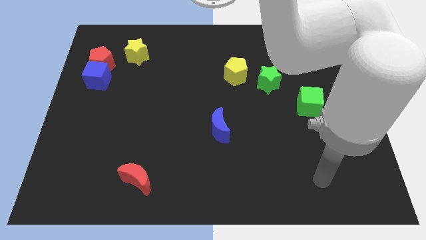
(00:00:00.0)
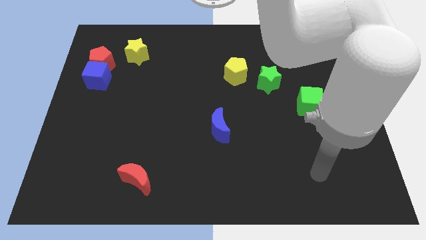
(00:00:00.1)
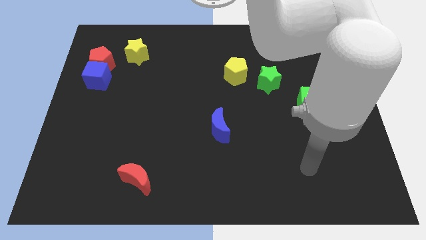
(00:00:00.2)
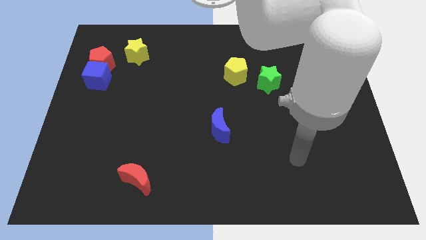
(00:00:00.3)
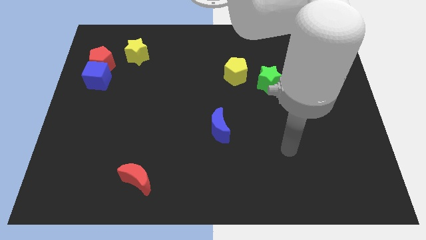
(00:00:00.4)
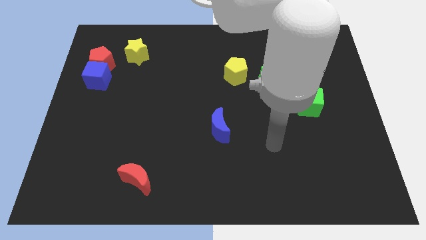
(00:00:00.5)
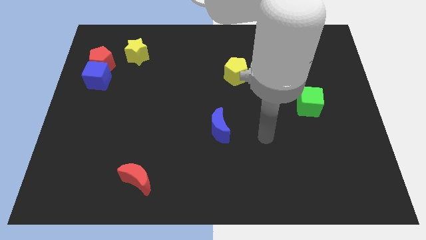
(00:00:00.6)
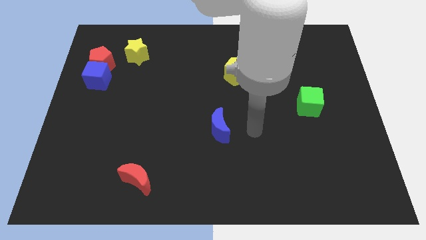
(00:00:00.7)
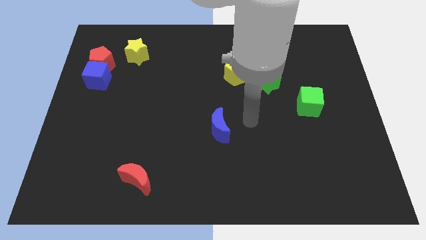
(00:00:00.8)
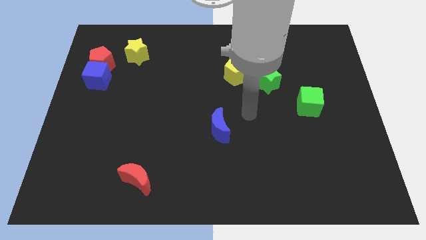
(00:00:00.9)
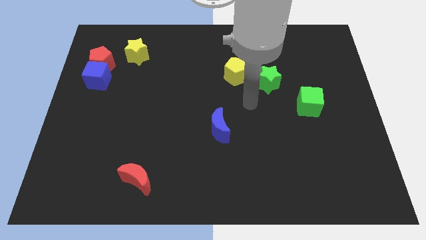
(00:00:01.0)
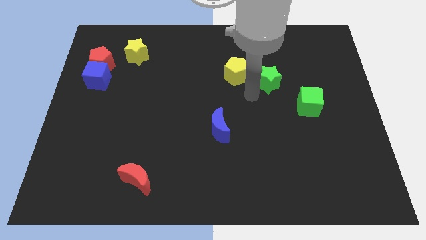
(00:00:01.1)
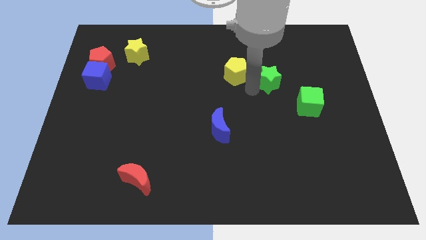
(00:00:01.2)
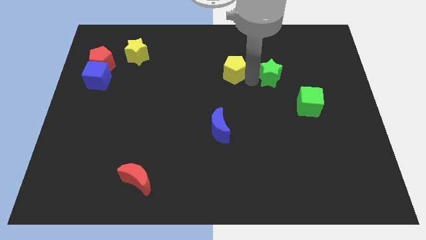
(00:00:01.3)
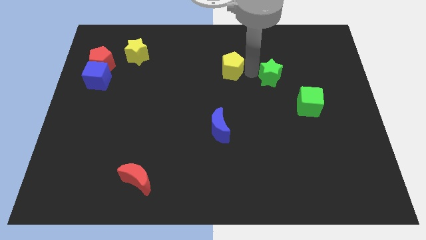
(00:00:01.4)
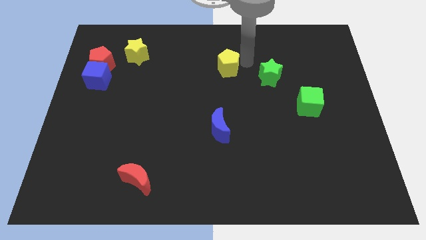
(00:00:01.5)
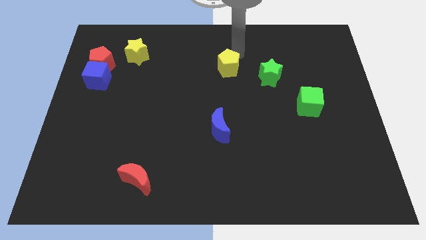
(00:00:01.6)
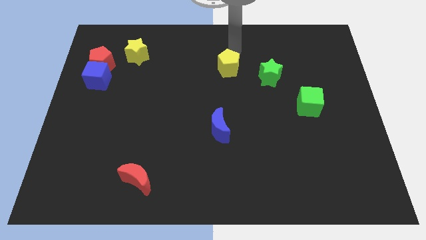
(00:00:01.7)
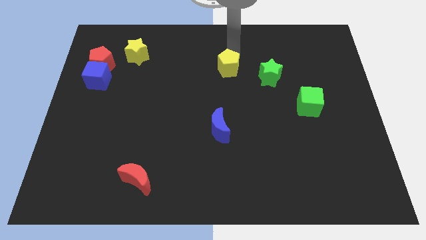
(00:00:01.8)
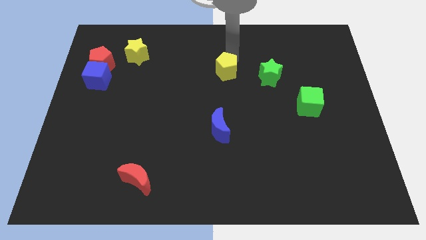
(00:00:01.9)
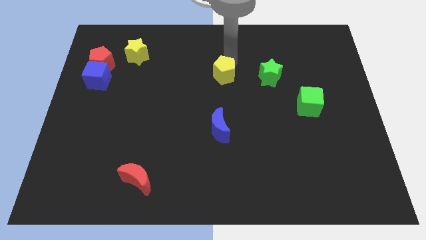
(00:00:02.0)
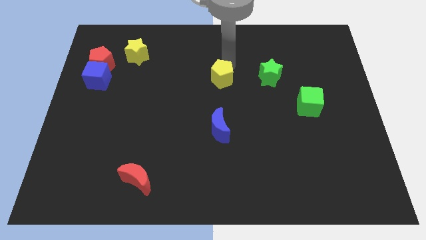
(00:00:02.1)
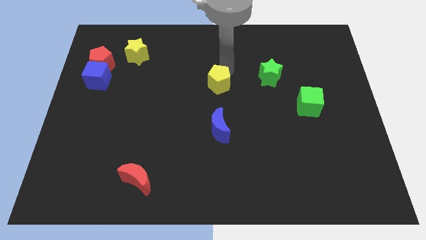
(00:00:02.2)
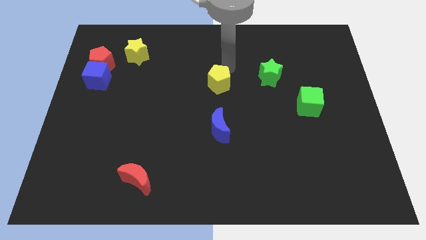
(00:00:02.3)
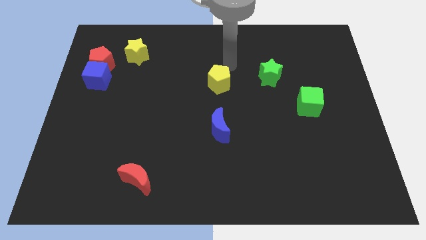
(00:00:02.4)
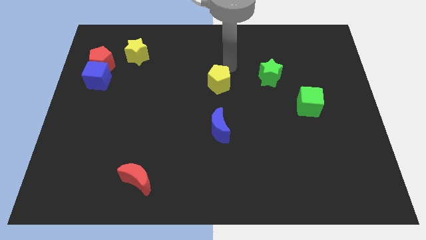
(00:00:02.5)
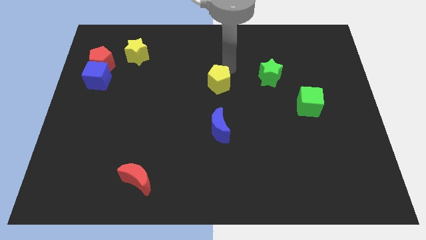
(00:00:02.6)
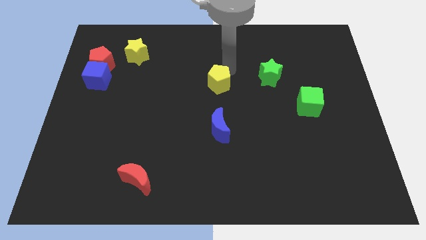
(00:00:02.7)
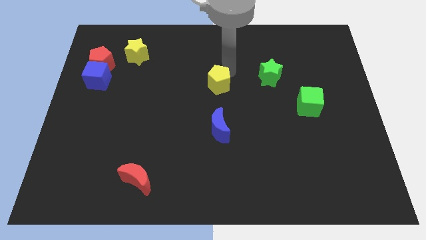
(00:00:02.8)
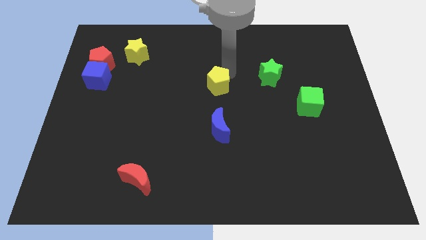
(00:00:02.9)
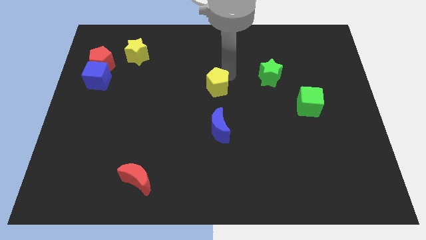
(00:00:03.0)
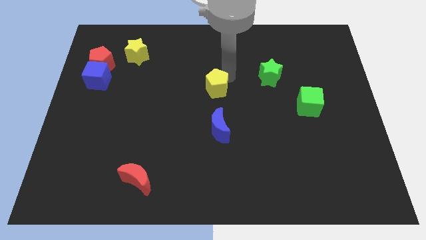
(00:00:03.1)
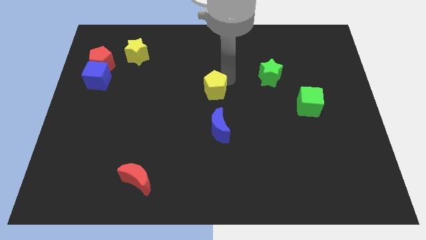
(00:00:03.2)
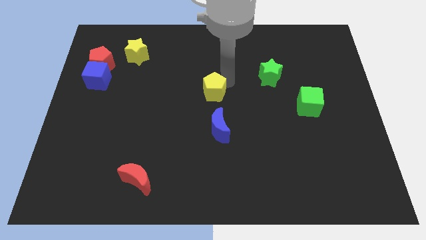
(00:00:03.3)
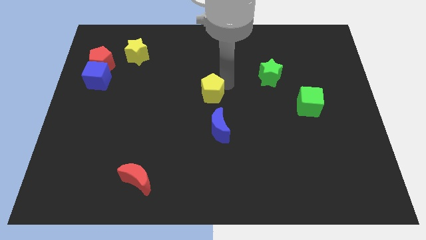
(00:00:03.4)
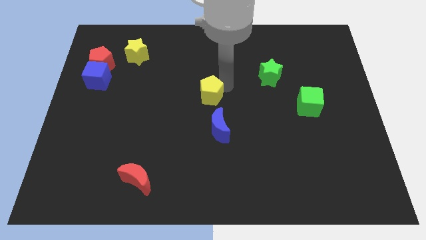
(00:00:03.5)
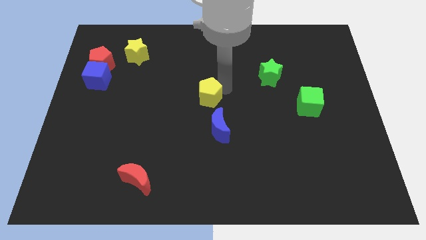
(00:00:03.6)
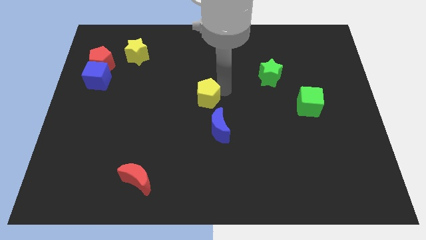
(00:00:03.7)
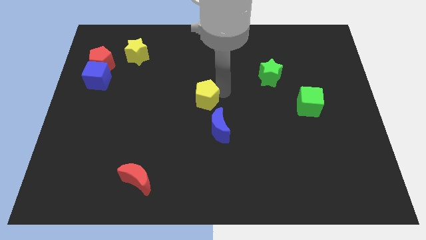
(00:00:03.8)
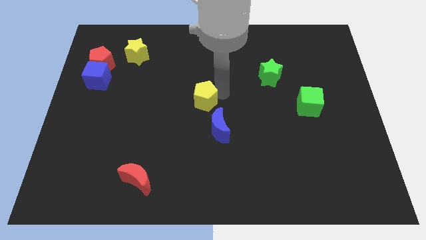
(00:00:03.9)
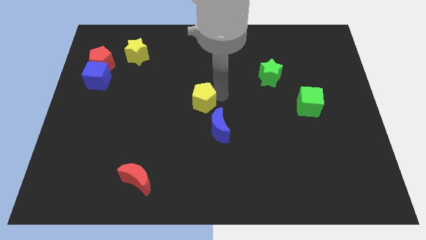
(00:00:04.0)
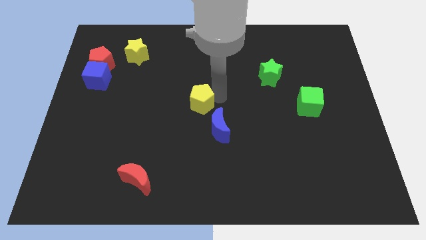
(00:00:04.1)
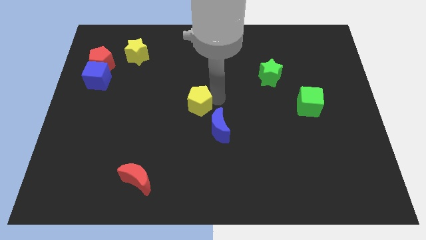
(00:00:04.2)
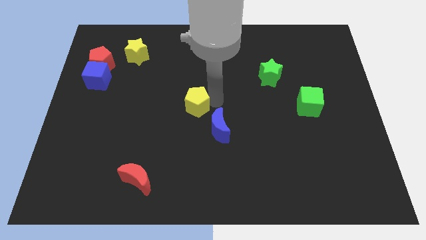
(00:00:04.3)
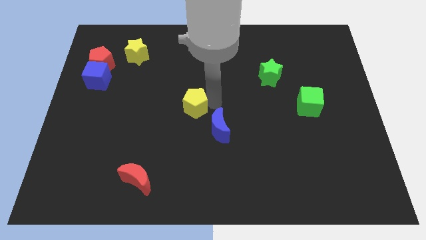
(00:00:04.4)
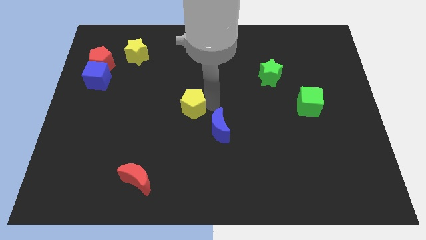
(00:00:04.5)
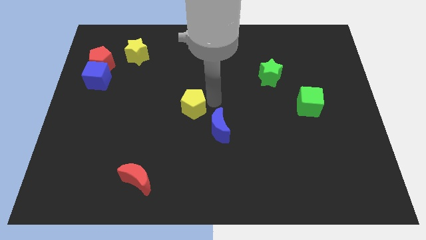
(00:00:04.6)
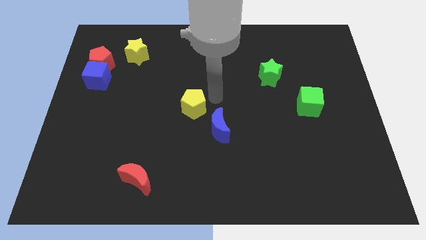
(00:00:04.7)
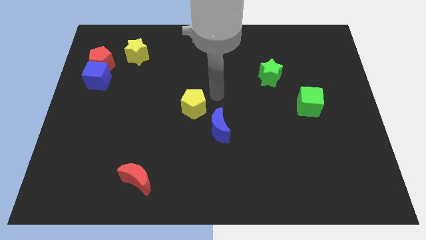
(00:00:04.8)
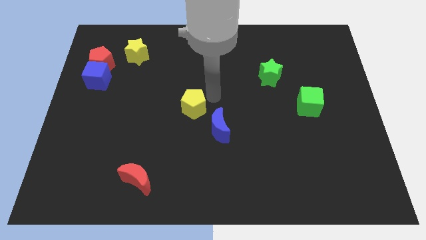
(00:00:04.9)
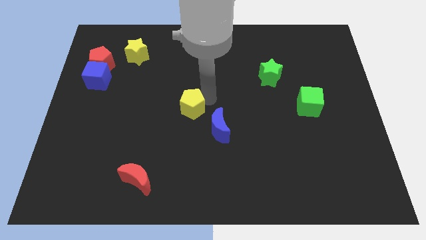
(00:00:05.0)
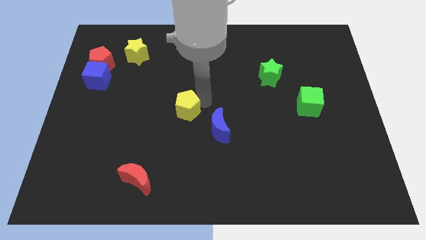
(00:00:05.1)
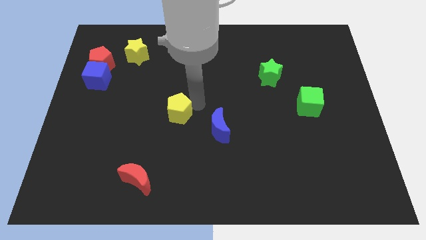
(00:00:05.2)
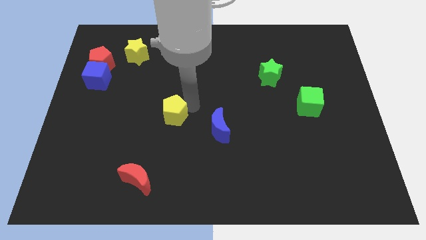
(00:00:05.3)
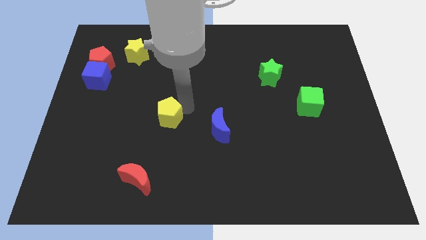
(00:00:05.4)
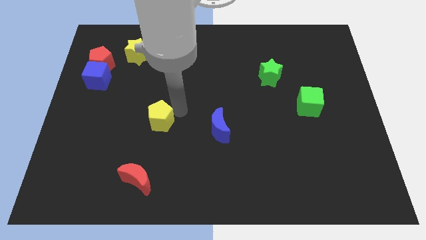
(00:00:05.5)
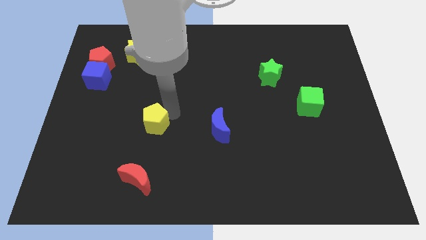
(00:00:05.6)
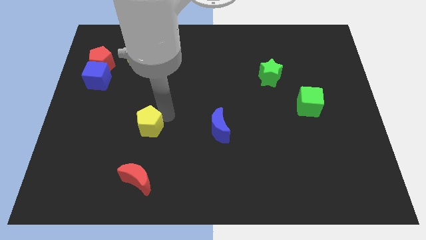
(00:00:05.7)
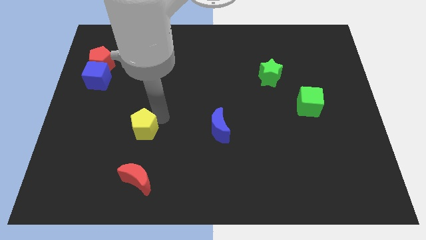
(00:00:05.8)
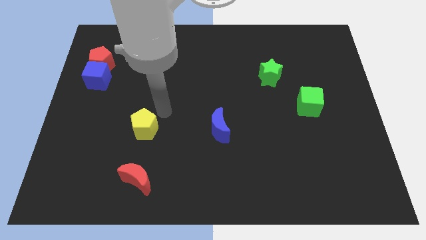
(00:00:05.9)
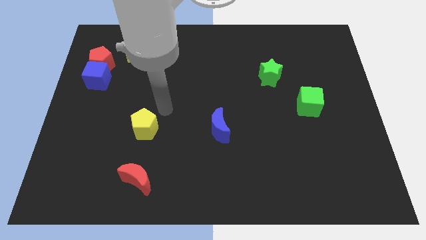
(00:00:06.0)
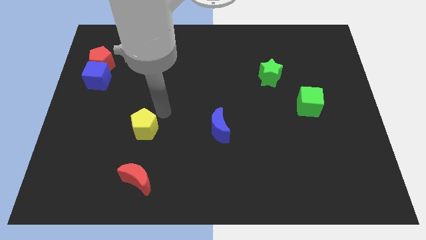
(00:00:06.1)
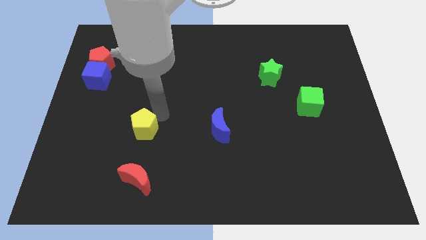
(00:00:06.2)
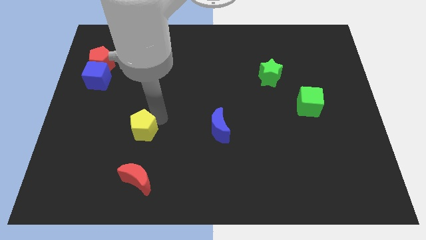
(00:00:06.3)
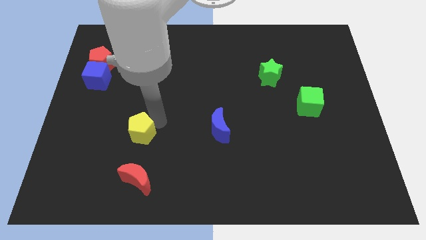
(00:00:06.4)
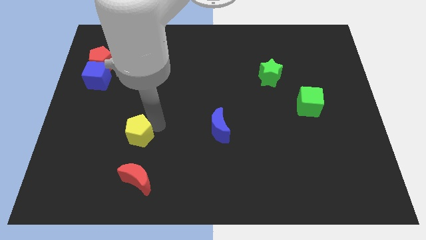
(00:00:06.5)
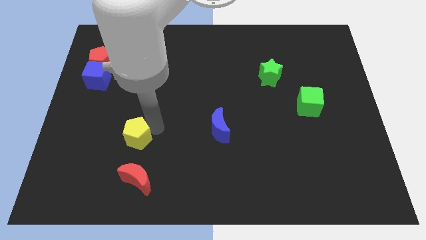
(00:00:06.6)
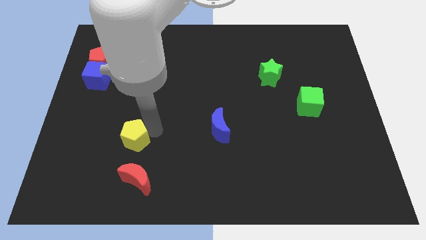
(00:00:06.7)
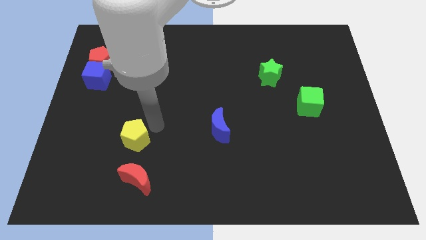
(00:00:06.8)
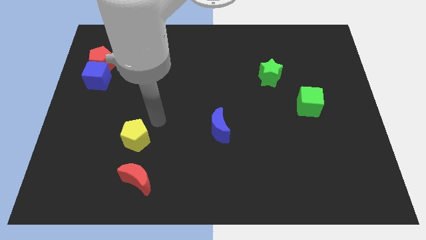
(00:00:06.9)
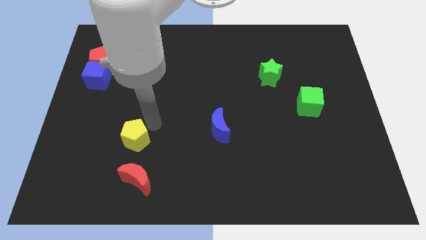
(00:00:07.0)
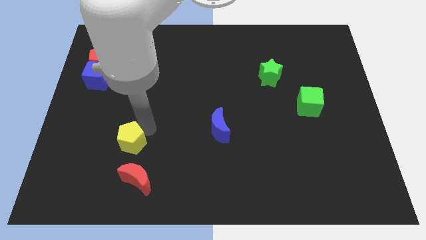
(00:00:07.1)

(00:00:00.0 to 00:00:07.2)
put the yellow pentagon diagonally up and to the left of the red moon
